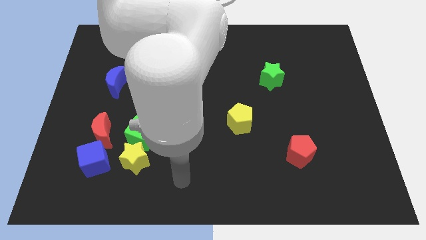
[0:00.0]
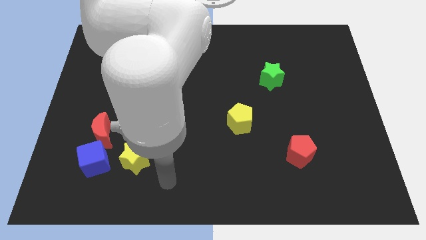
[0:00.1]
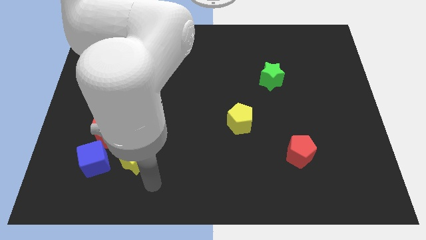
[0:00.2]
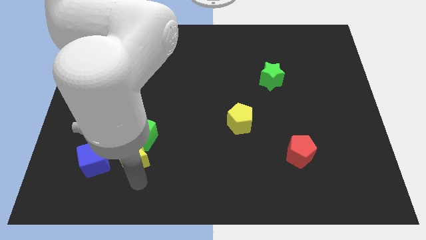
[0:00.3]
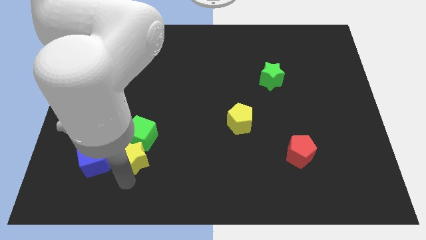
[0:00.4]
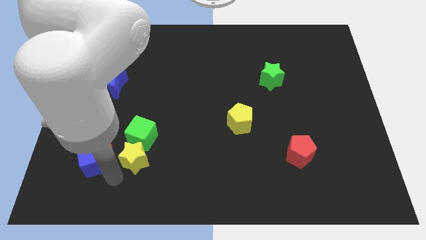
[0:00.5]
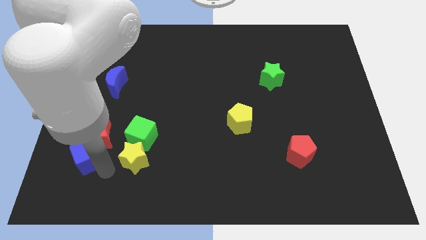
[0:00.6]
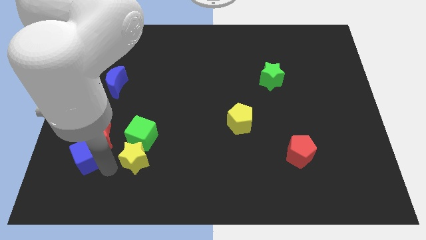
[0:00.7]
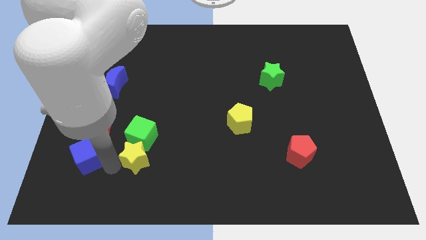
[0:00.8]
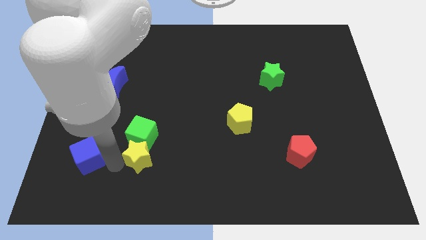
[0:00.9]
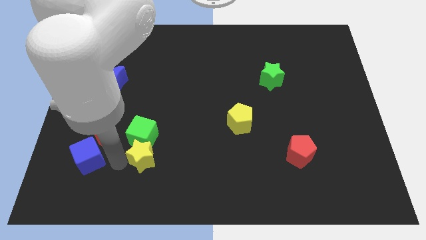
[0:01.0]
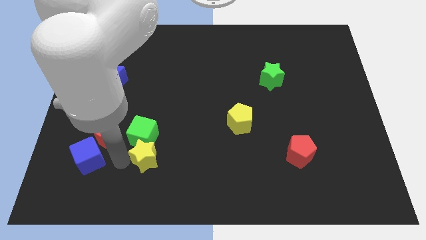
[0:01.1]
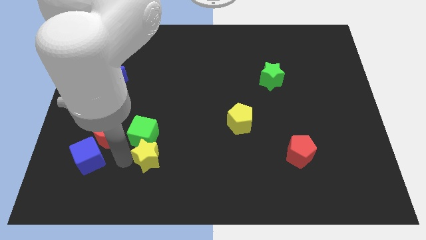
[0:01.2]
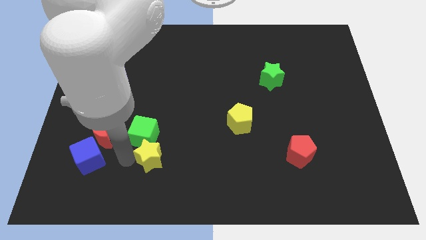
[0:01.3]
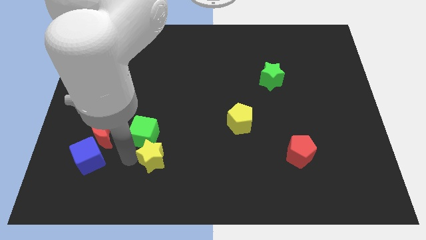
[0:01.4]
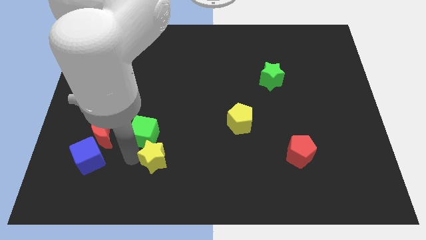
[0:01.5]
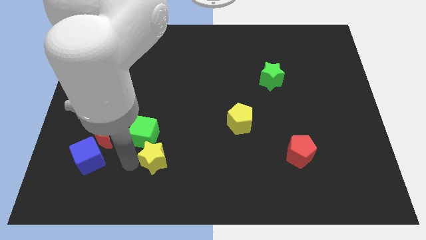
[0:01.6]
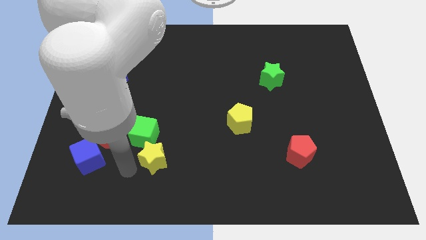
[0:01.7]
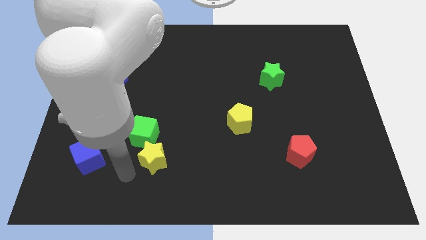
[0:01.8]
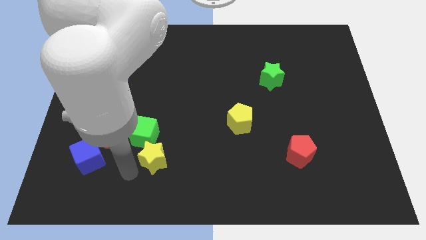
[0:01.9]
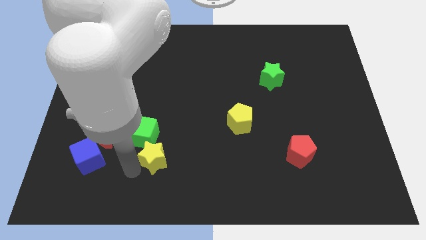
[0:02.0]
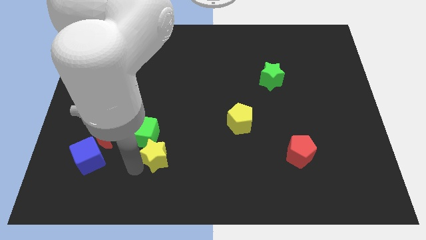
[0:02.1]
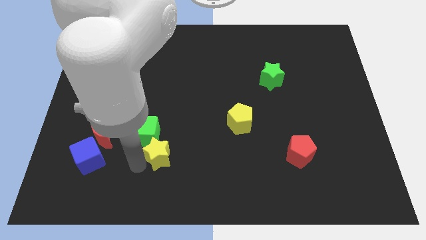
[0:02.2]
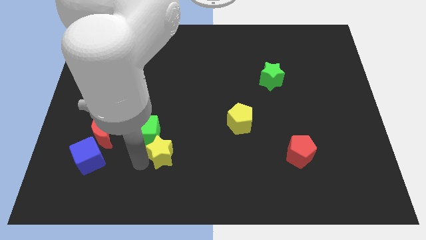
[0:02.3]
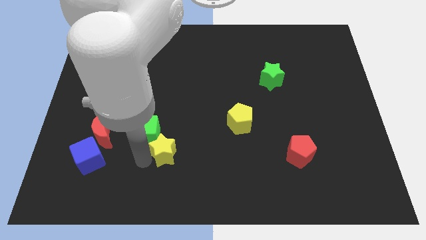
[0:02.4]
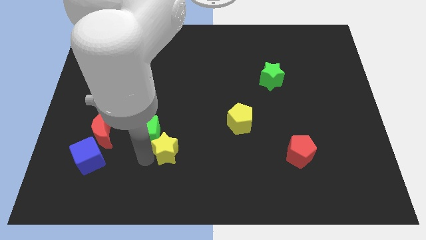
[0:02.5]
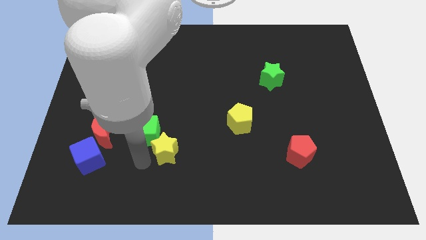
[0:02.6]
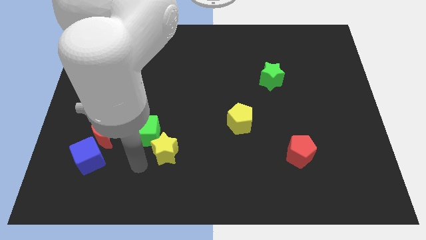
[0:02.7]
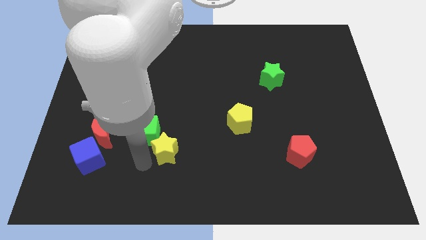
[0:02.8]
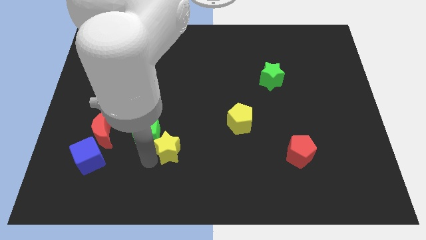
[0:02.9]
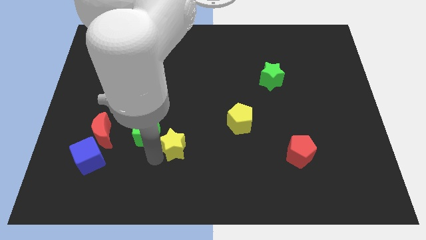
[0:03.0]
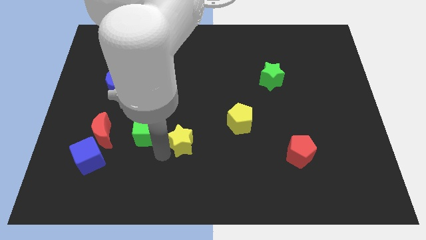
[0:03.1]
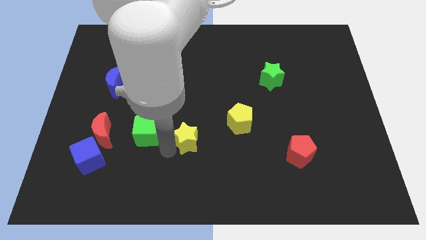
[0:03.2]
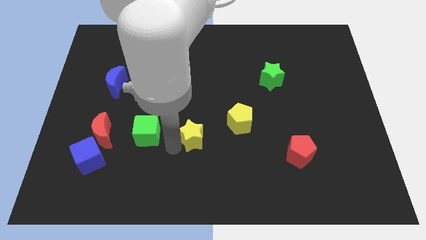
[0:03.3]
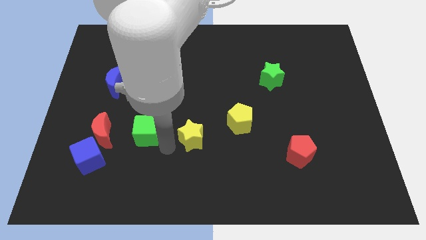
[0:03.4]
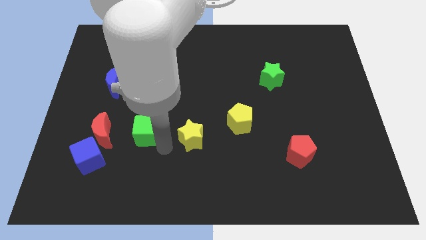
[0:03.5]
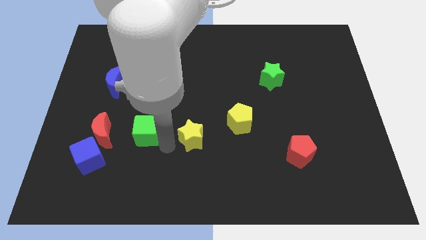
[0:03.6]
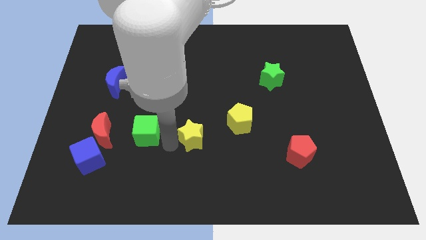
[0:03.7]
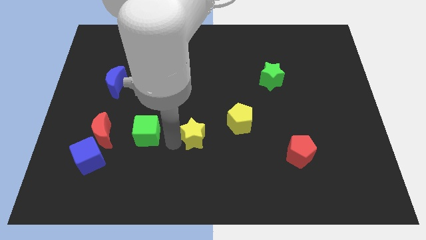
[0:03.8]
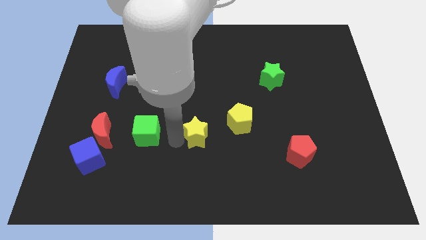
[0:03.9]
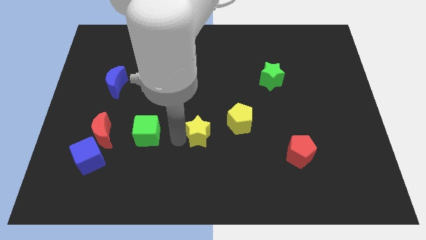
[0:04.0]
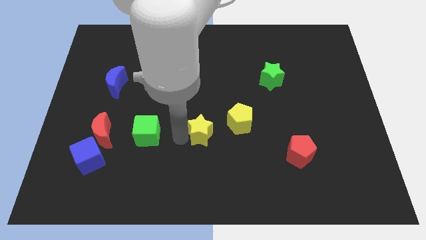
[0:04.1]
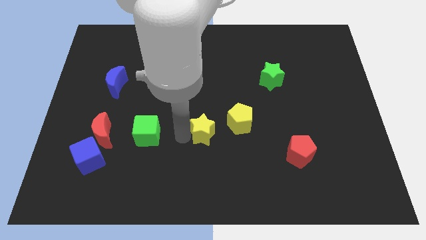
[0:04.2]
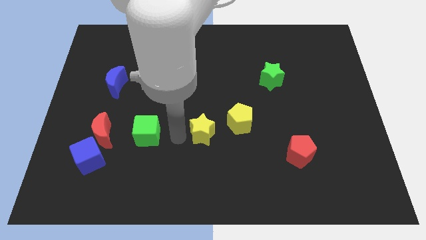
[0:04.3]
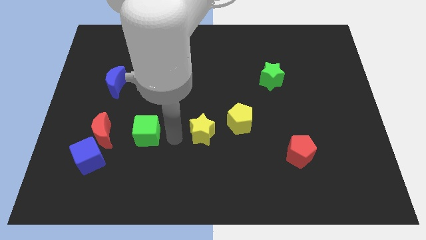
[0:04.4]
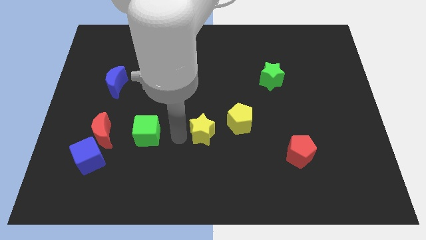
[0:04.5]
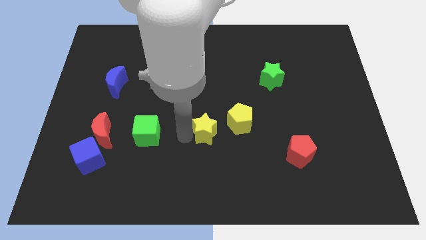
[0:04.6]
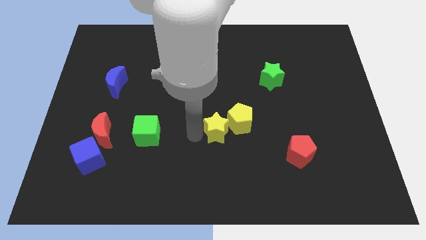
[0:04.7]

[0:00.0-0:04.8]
slide the yellow star next to the yellow pentagon

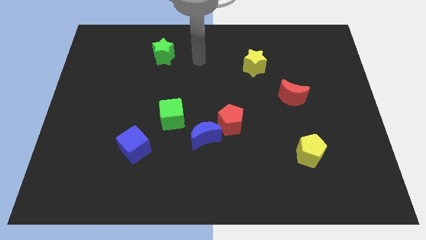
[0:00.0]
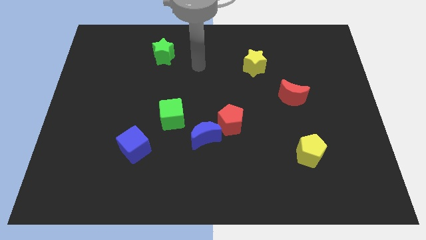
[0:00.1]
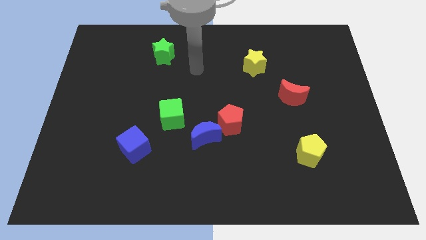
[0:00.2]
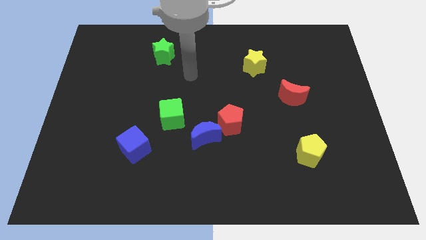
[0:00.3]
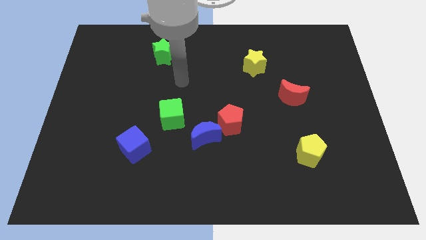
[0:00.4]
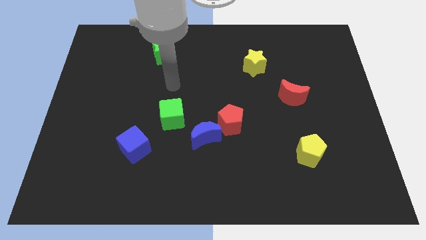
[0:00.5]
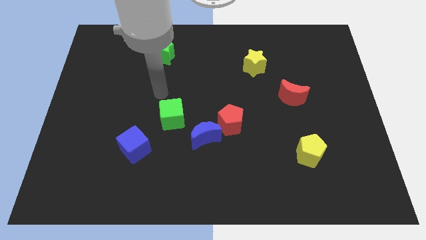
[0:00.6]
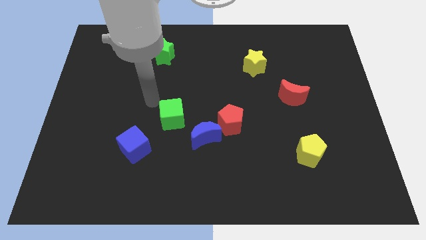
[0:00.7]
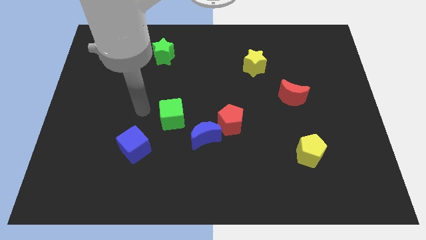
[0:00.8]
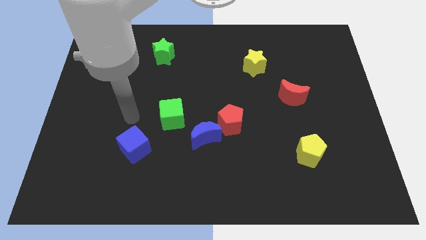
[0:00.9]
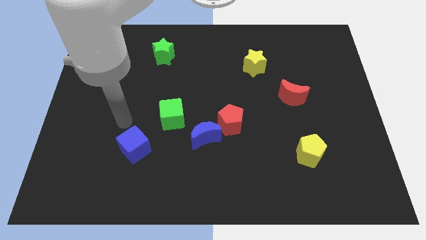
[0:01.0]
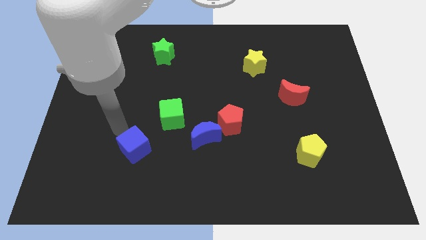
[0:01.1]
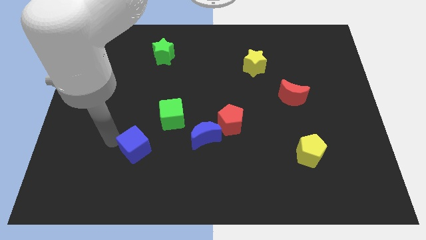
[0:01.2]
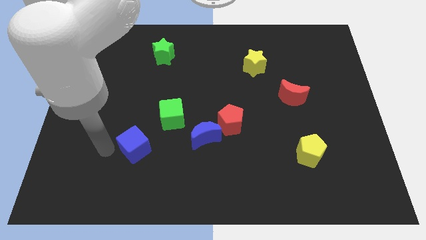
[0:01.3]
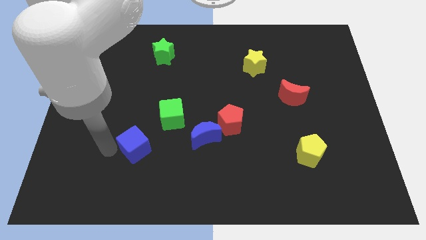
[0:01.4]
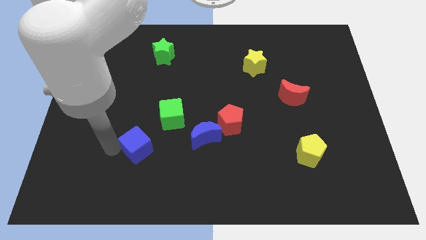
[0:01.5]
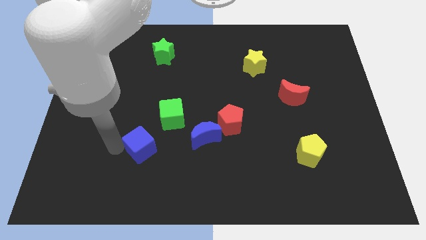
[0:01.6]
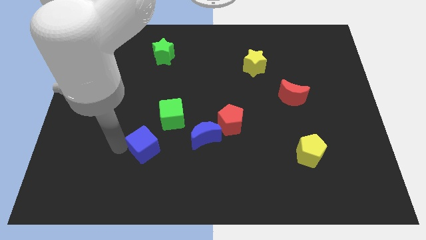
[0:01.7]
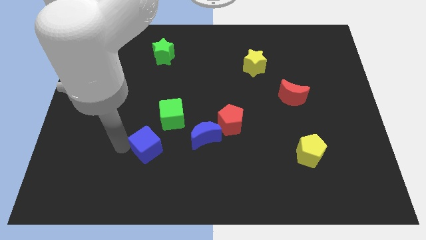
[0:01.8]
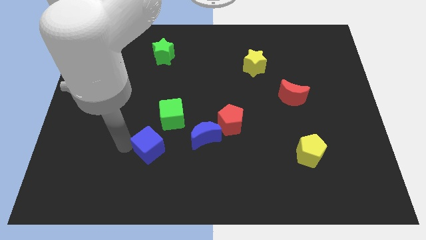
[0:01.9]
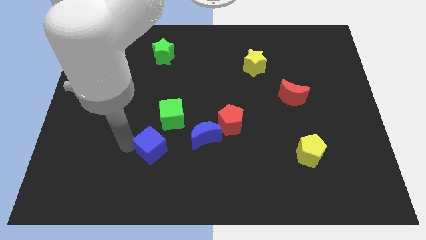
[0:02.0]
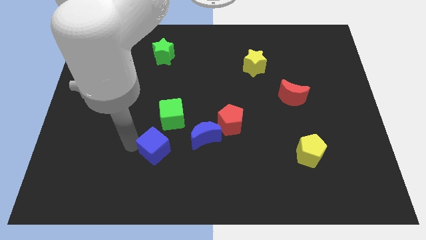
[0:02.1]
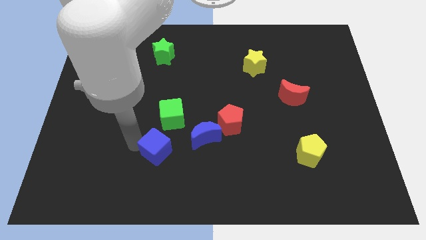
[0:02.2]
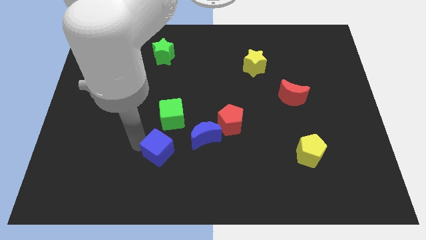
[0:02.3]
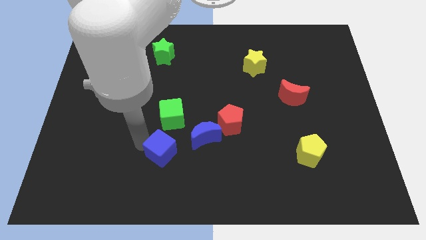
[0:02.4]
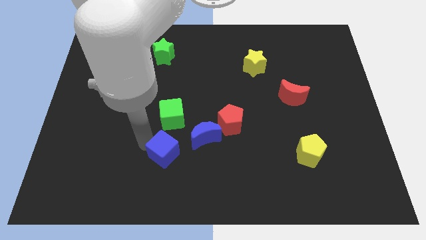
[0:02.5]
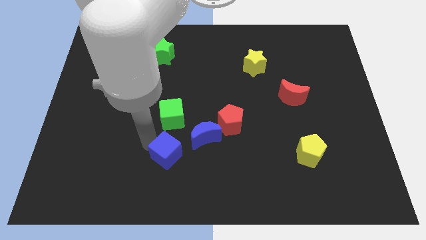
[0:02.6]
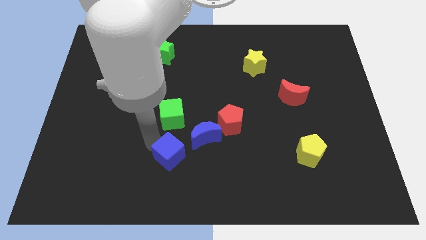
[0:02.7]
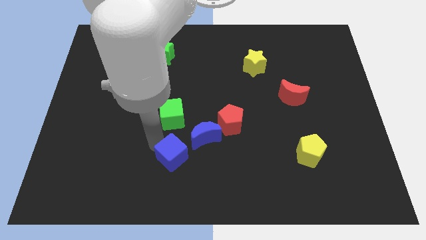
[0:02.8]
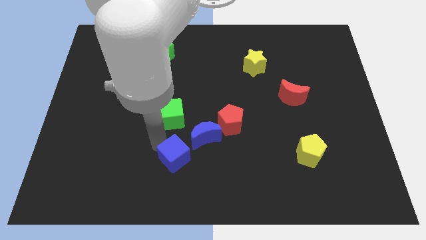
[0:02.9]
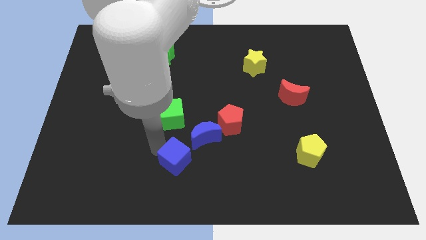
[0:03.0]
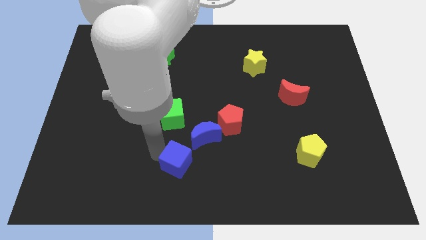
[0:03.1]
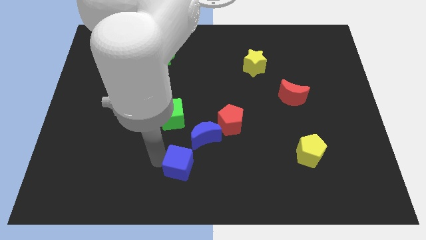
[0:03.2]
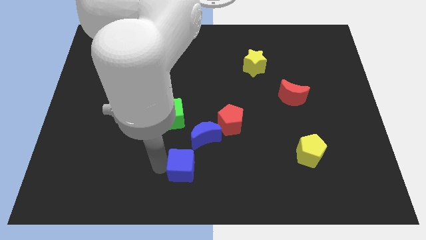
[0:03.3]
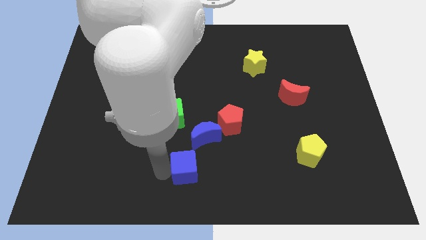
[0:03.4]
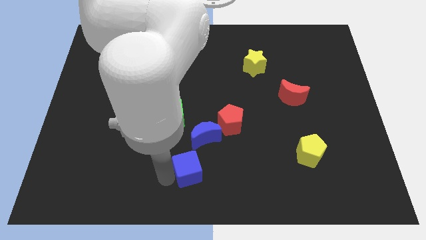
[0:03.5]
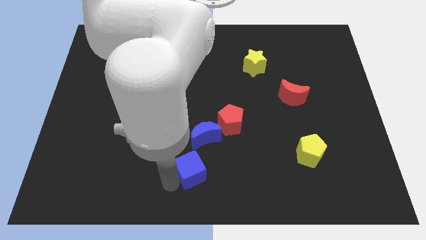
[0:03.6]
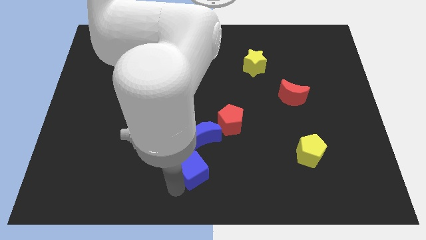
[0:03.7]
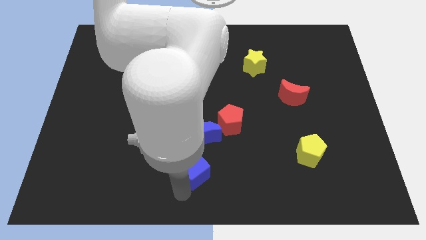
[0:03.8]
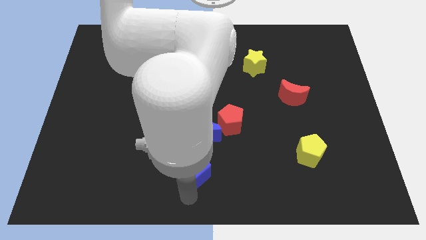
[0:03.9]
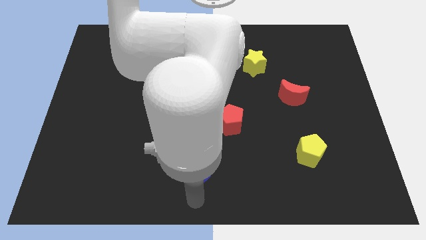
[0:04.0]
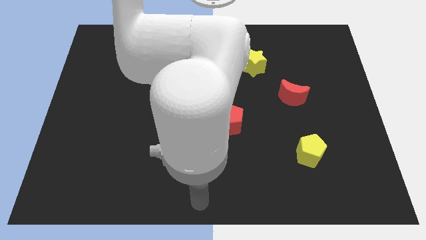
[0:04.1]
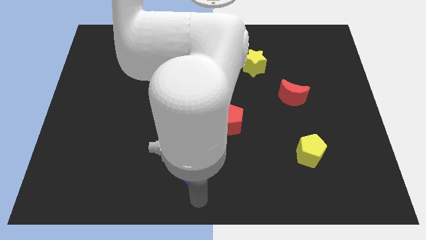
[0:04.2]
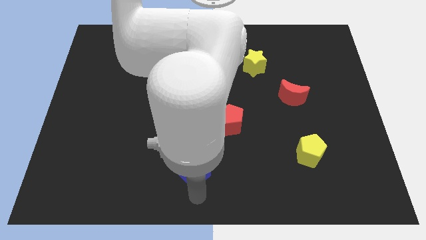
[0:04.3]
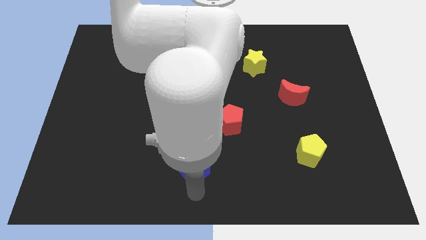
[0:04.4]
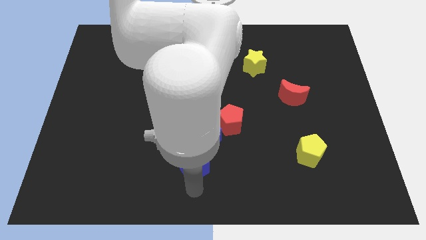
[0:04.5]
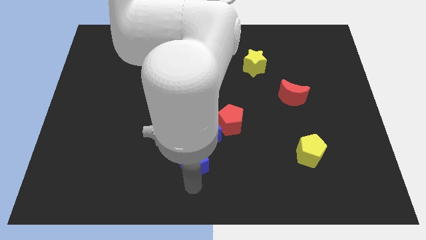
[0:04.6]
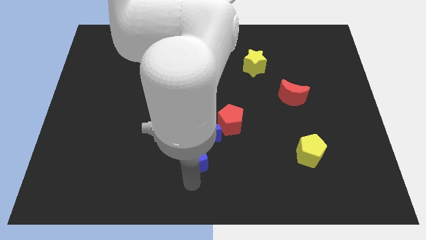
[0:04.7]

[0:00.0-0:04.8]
move the blue cube towards the blue moon
